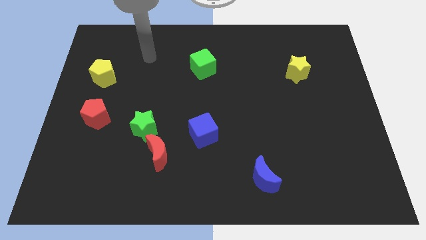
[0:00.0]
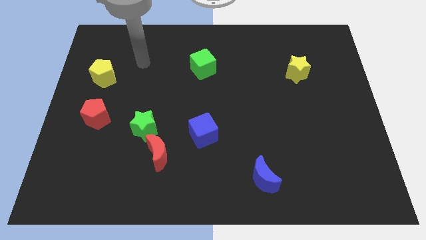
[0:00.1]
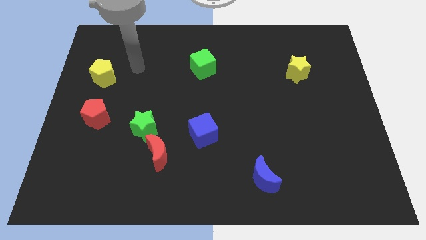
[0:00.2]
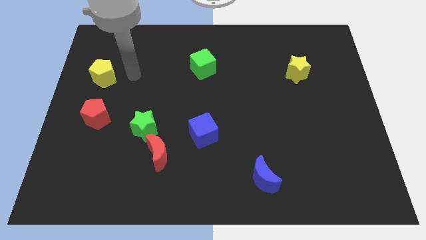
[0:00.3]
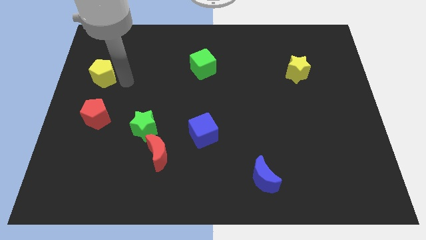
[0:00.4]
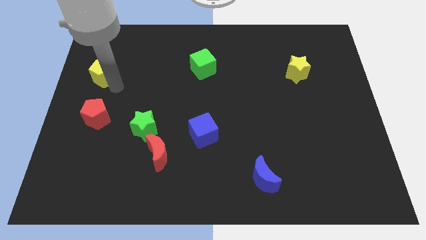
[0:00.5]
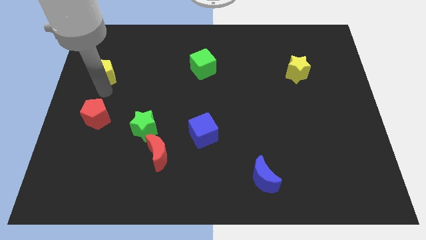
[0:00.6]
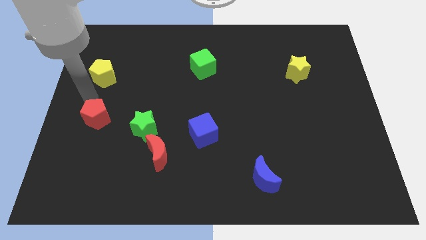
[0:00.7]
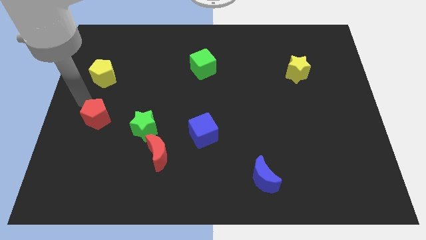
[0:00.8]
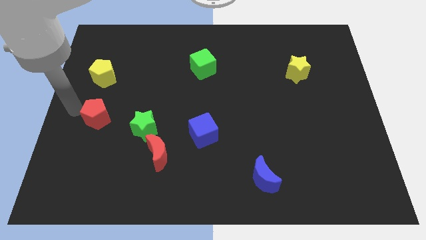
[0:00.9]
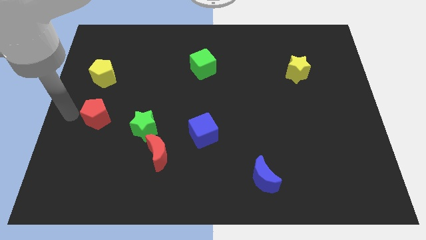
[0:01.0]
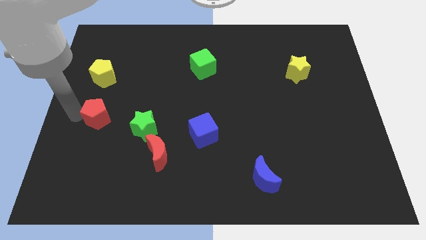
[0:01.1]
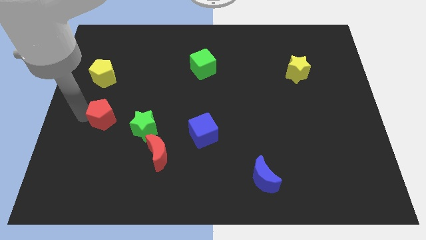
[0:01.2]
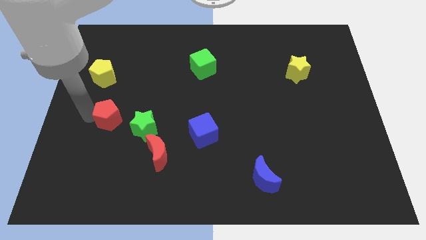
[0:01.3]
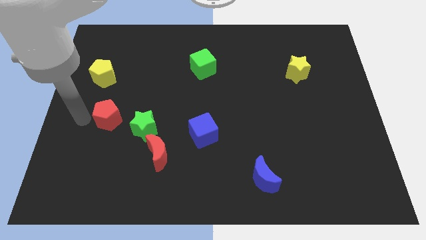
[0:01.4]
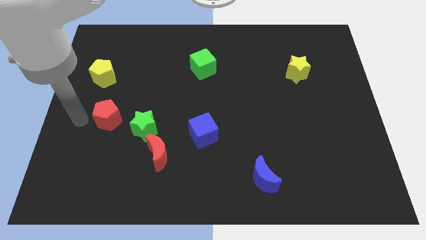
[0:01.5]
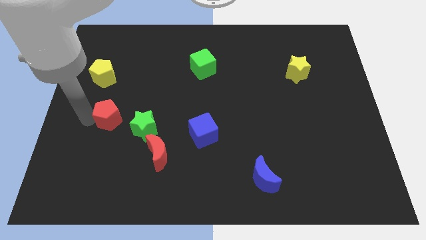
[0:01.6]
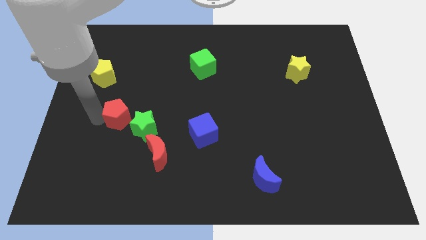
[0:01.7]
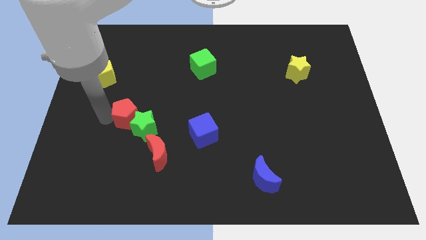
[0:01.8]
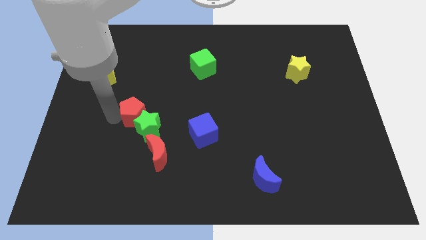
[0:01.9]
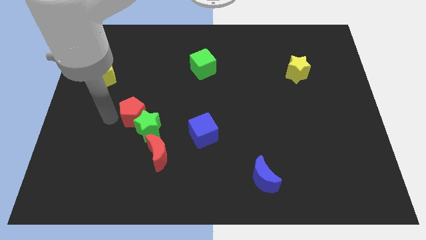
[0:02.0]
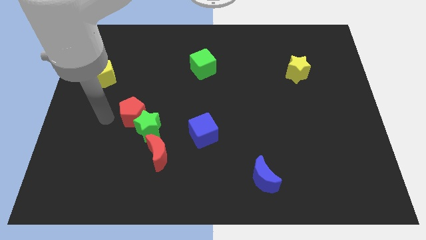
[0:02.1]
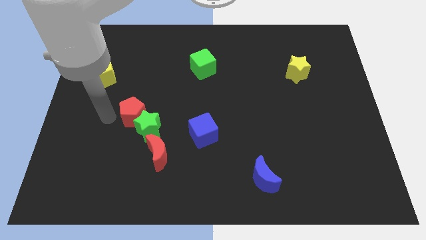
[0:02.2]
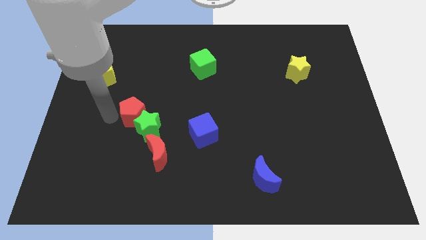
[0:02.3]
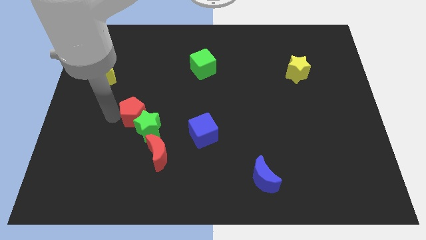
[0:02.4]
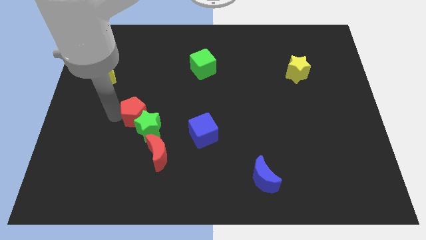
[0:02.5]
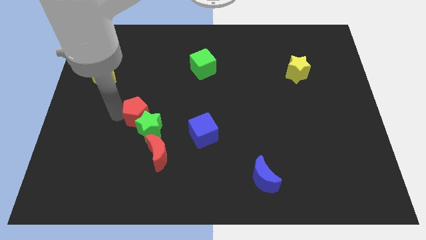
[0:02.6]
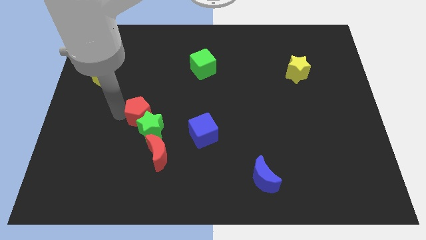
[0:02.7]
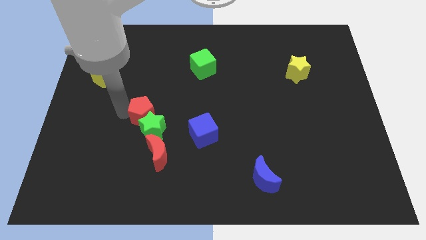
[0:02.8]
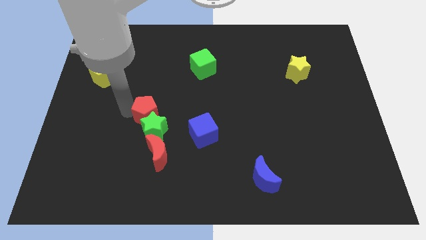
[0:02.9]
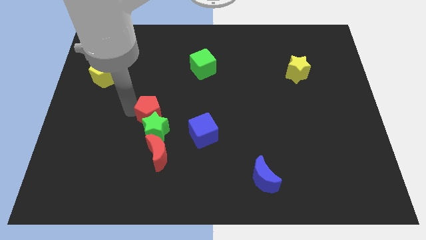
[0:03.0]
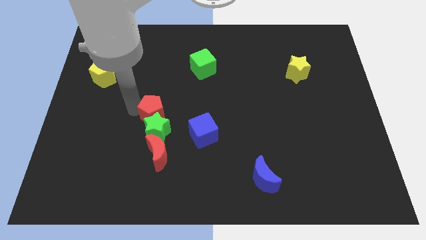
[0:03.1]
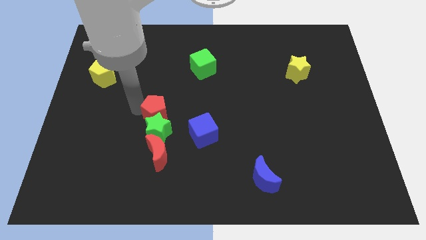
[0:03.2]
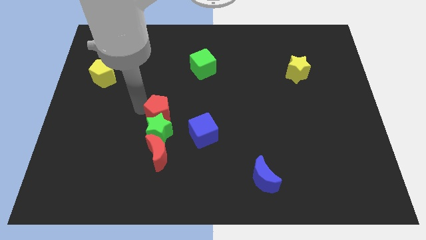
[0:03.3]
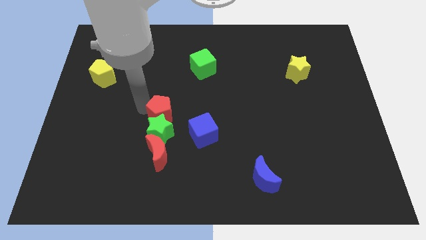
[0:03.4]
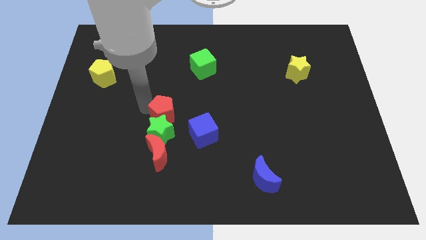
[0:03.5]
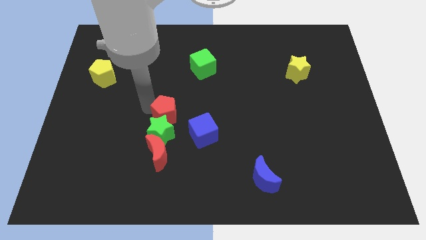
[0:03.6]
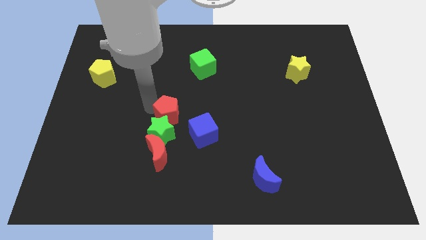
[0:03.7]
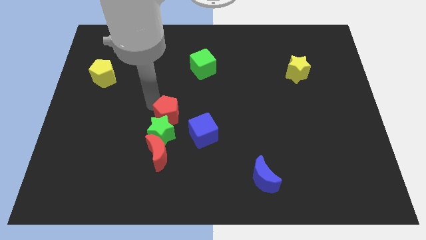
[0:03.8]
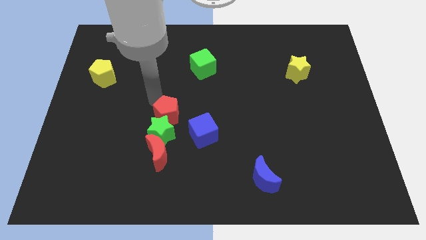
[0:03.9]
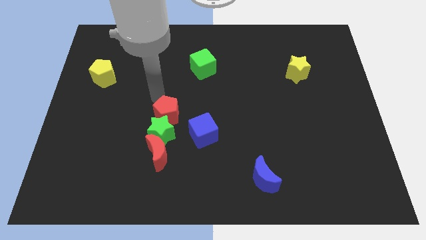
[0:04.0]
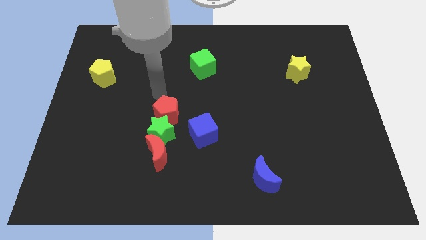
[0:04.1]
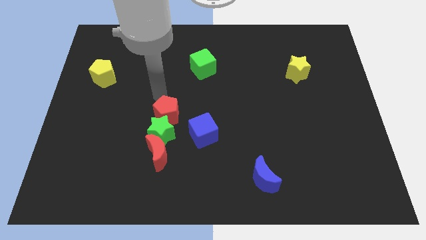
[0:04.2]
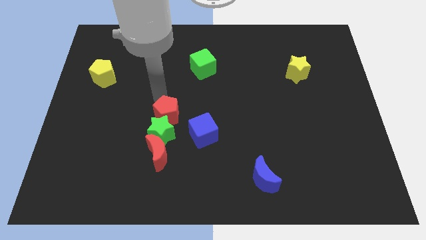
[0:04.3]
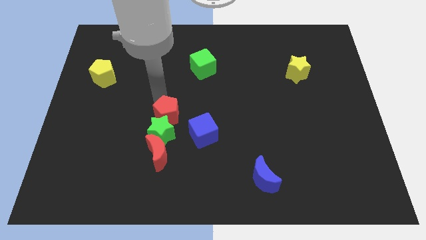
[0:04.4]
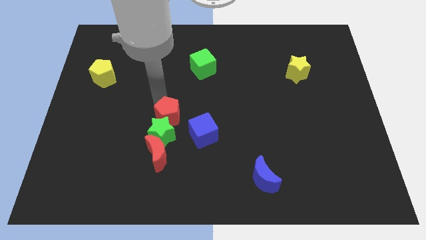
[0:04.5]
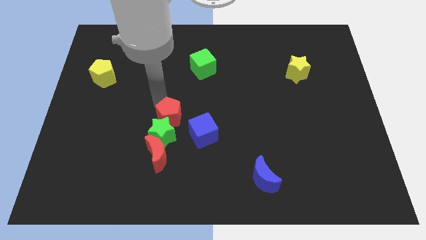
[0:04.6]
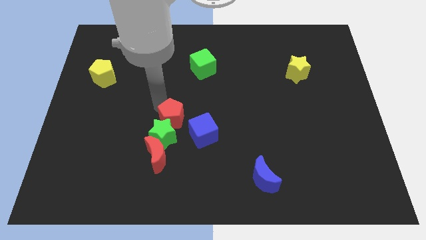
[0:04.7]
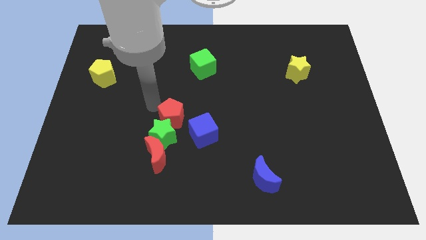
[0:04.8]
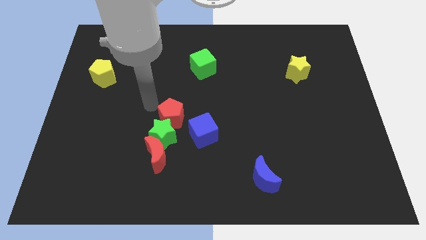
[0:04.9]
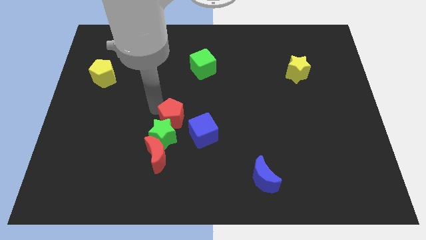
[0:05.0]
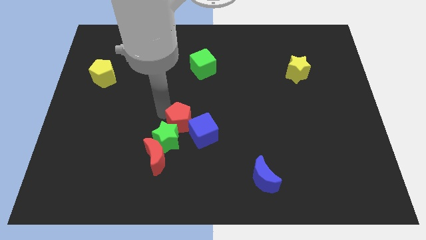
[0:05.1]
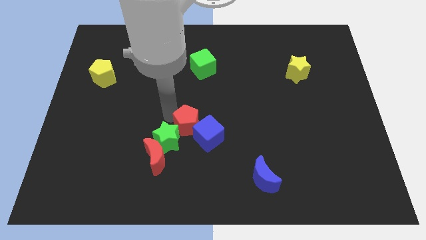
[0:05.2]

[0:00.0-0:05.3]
slide the red pentagon close to the blue cube

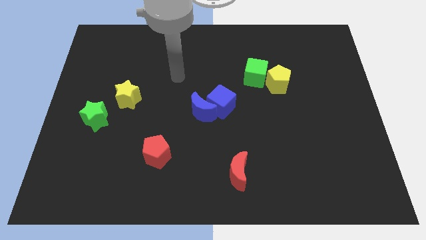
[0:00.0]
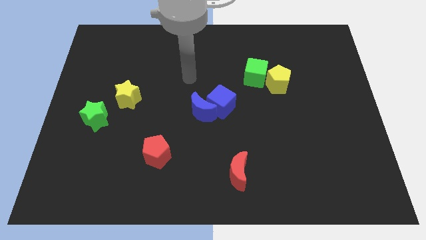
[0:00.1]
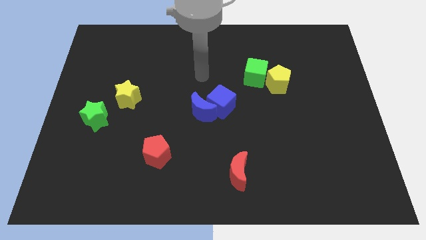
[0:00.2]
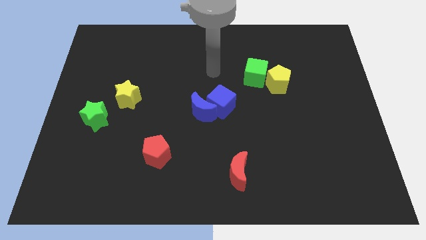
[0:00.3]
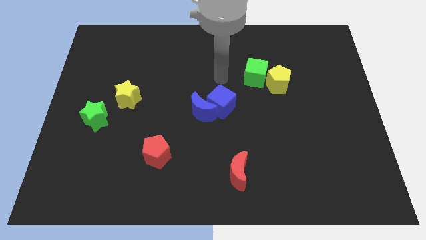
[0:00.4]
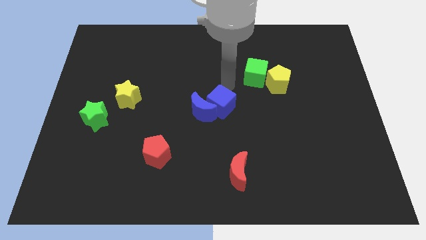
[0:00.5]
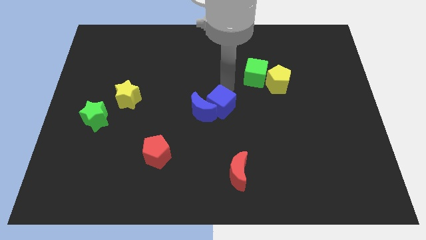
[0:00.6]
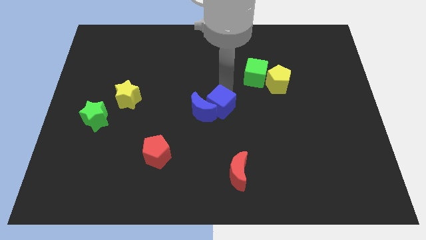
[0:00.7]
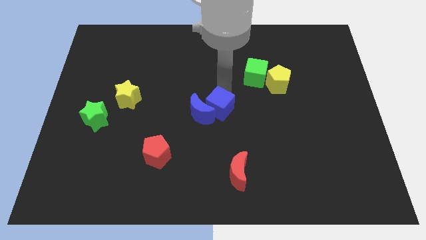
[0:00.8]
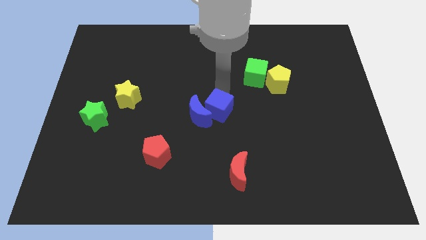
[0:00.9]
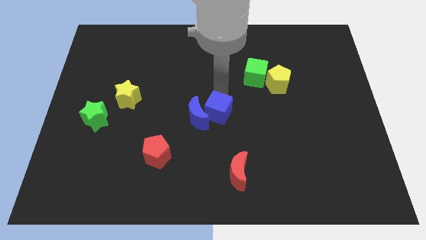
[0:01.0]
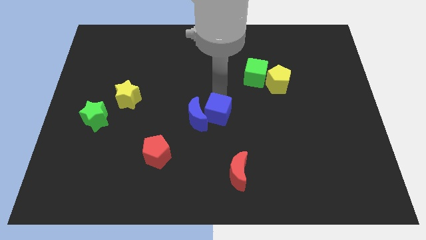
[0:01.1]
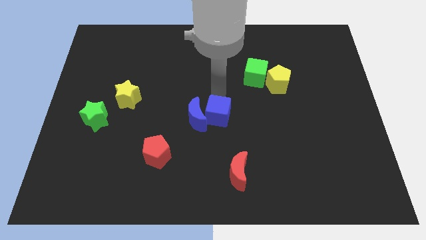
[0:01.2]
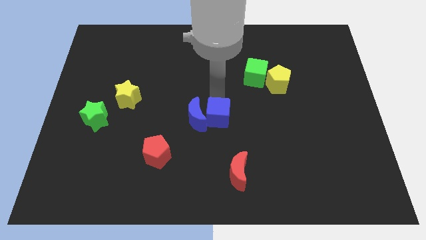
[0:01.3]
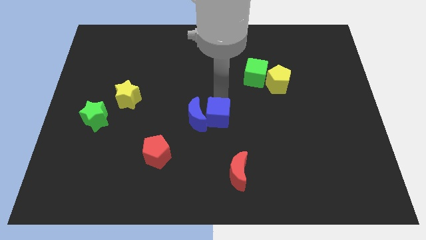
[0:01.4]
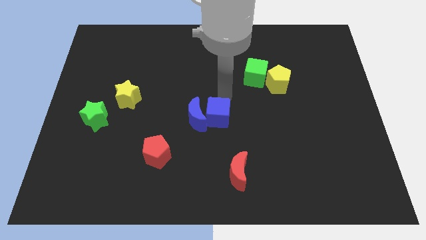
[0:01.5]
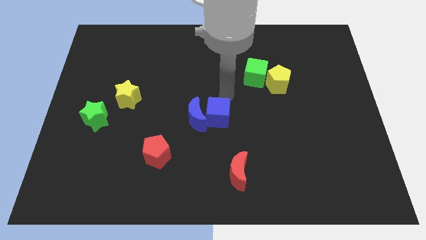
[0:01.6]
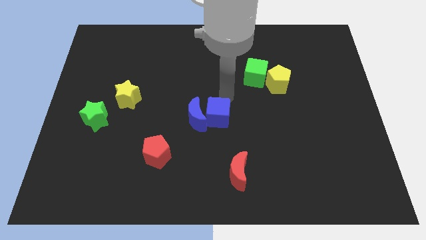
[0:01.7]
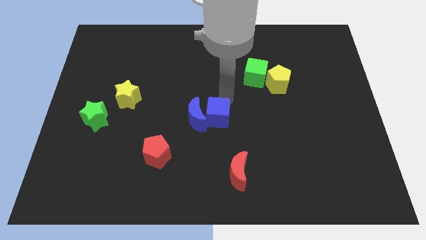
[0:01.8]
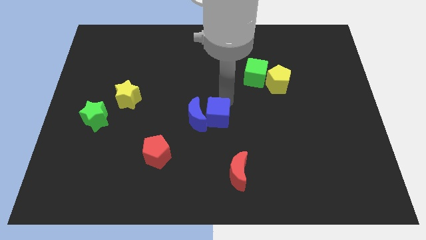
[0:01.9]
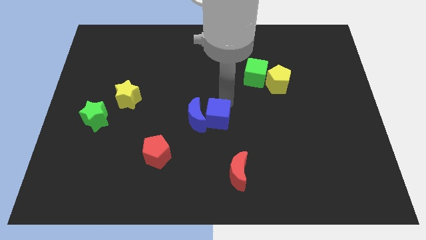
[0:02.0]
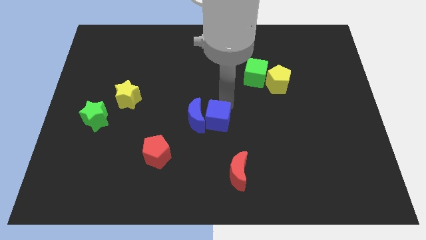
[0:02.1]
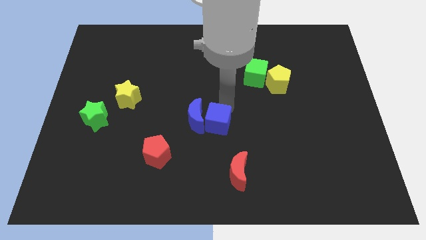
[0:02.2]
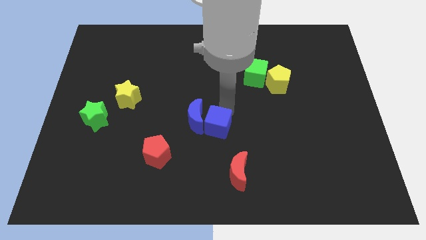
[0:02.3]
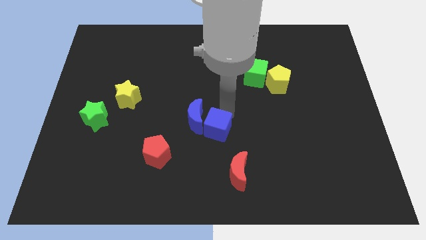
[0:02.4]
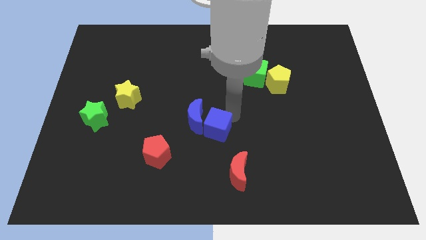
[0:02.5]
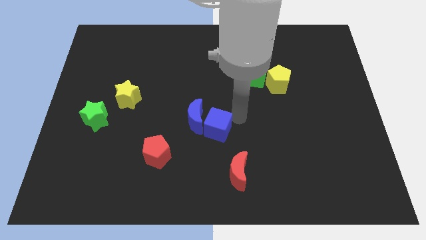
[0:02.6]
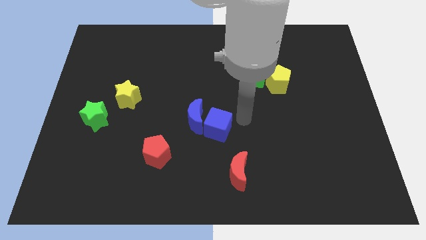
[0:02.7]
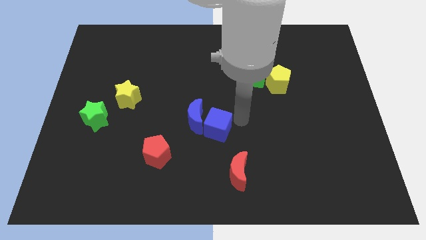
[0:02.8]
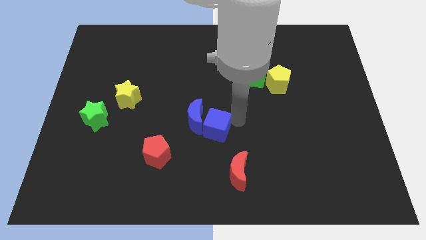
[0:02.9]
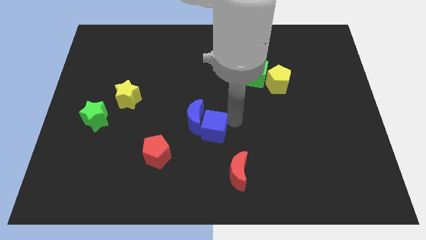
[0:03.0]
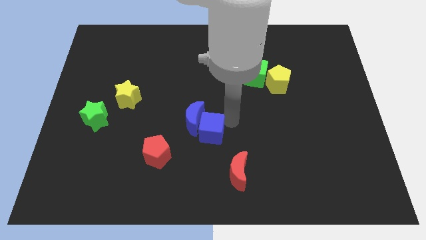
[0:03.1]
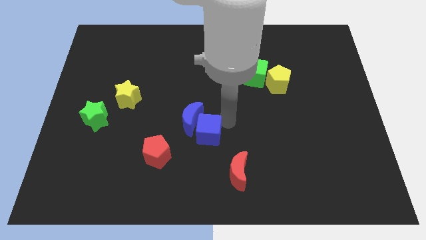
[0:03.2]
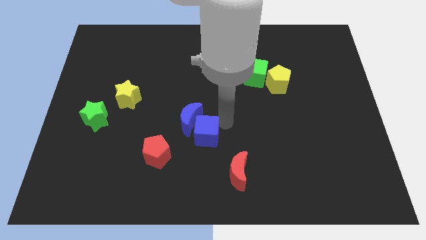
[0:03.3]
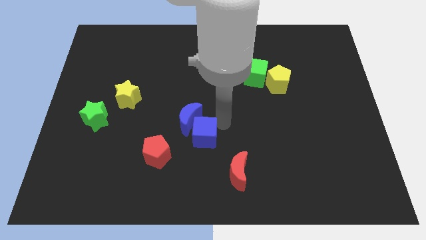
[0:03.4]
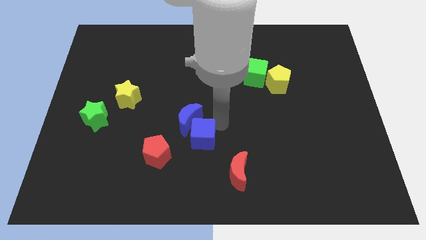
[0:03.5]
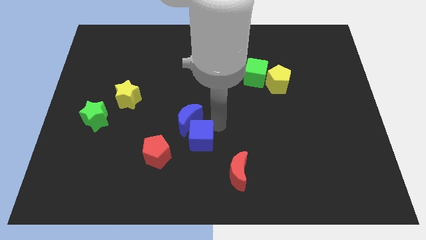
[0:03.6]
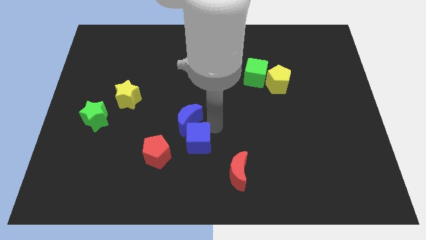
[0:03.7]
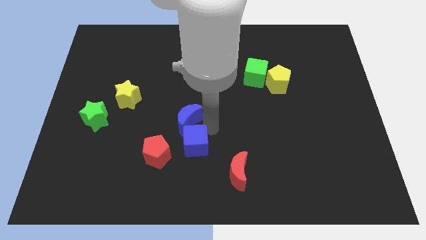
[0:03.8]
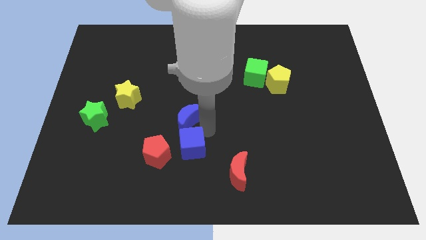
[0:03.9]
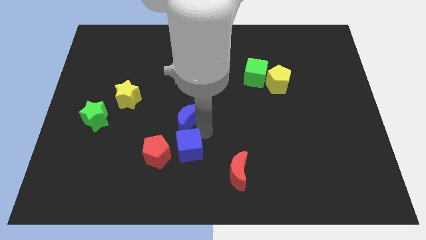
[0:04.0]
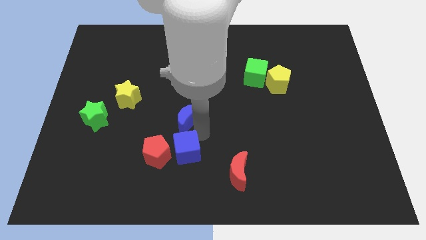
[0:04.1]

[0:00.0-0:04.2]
slide the blue cube to the red pentagon
